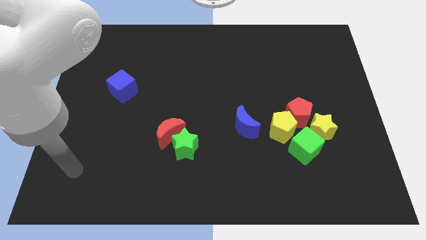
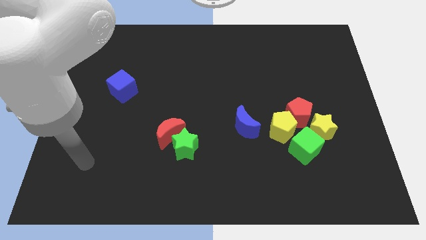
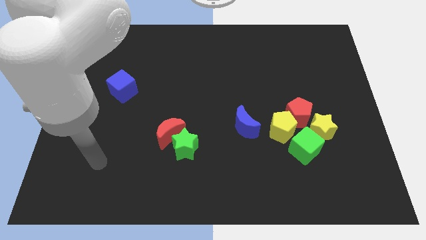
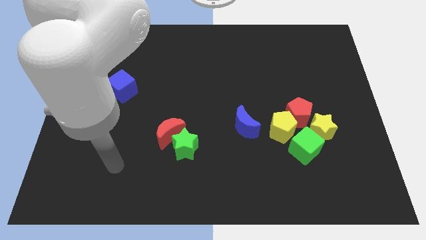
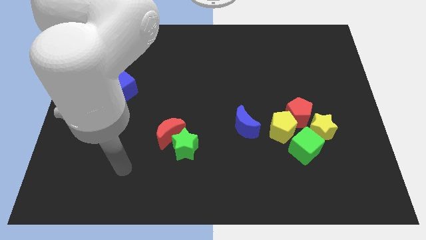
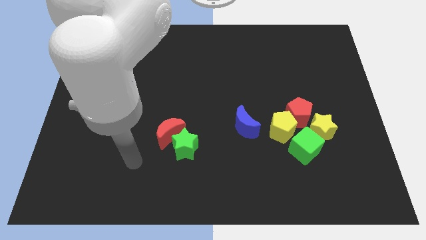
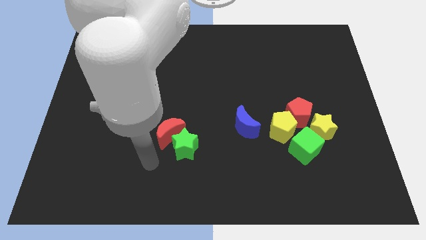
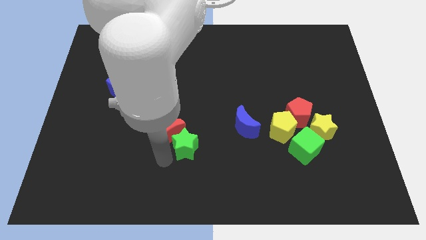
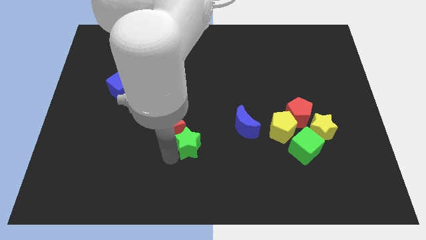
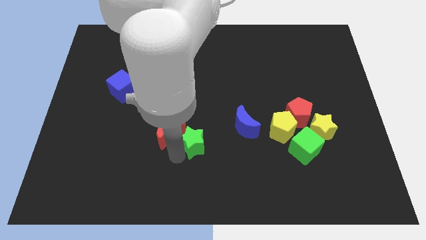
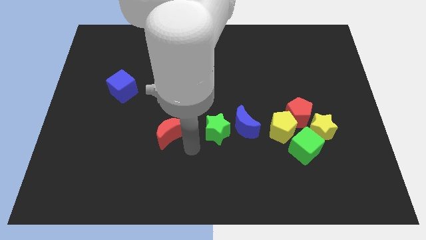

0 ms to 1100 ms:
separate the red moon from the green star

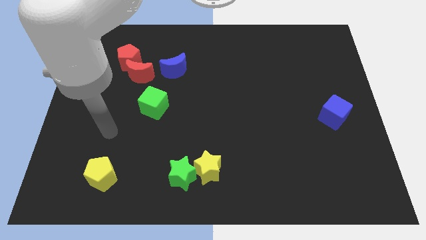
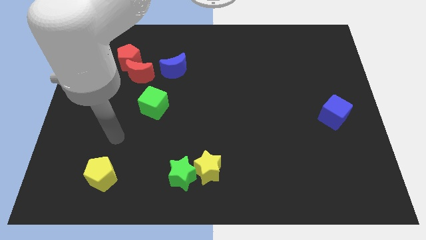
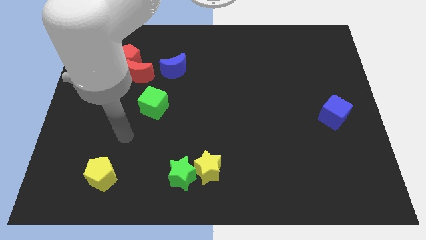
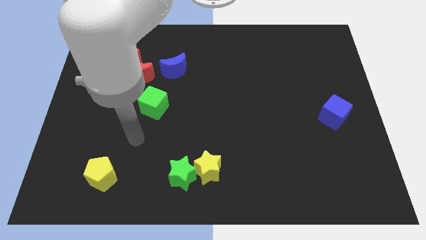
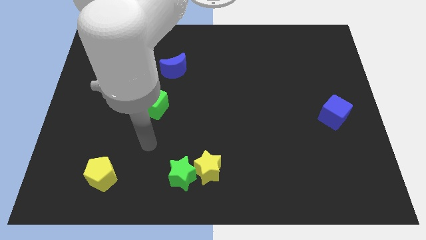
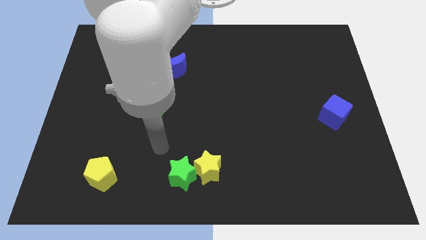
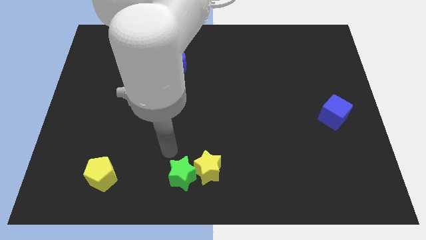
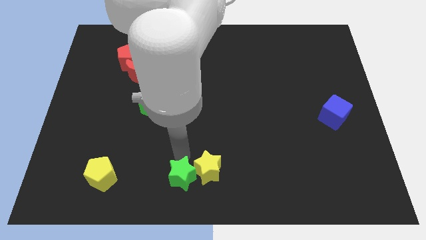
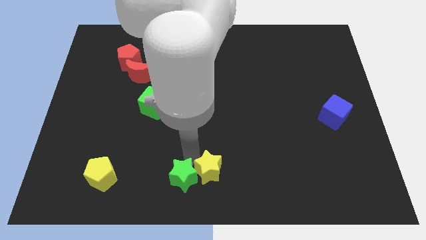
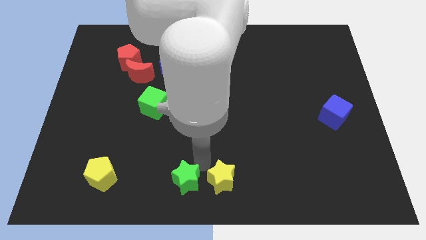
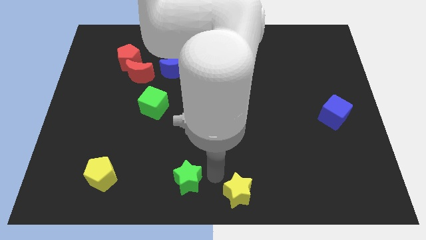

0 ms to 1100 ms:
pull the green star apart from the yellow star

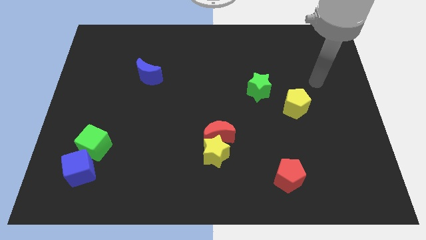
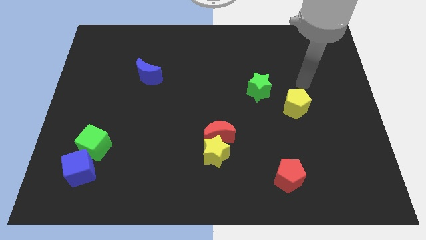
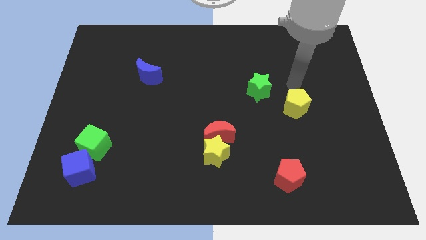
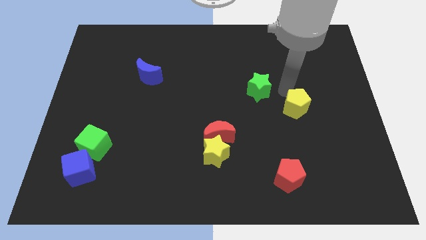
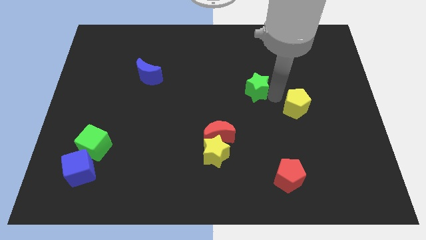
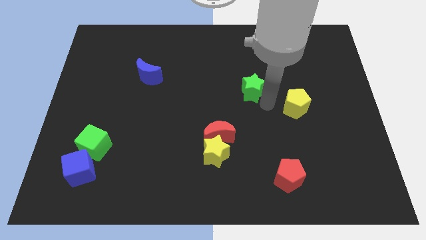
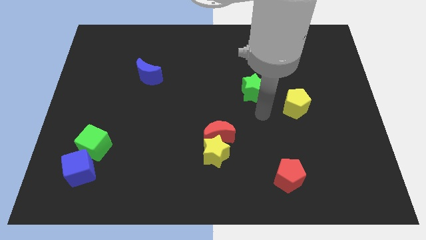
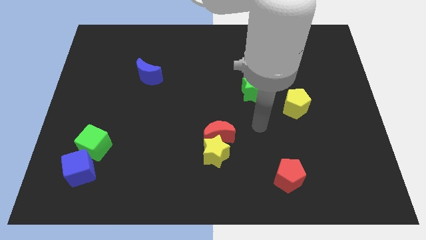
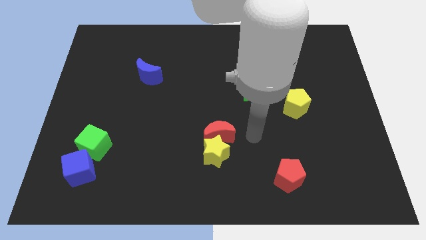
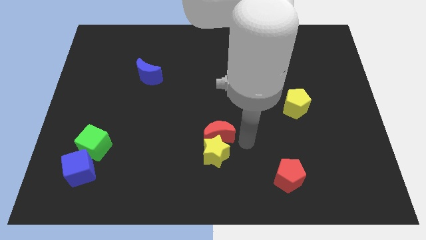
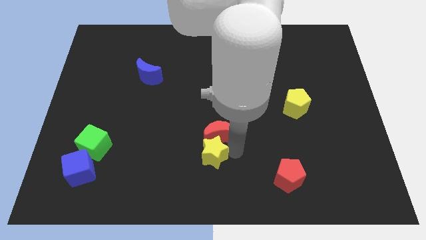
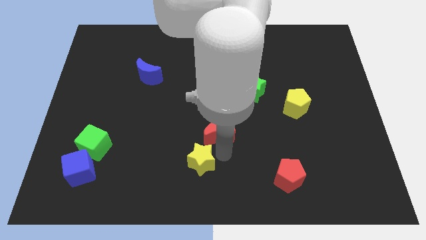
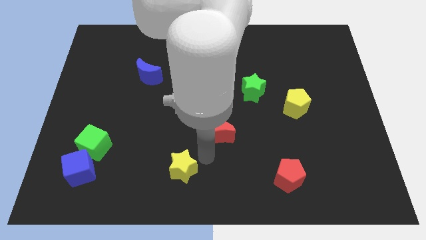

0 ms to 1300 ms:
separate the red moon from the yellow star

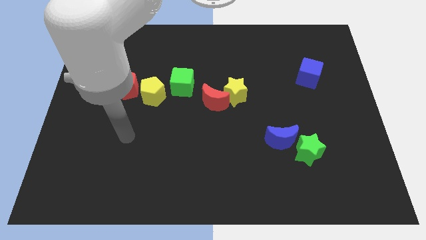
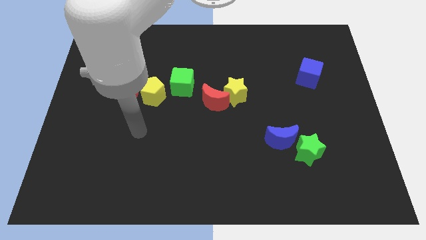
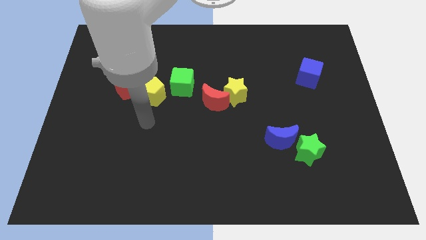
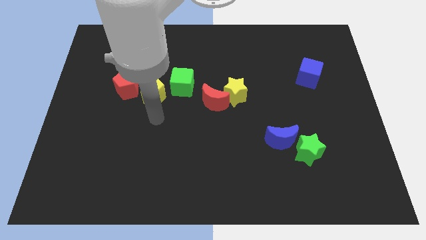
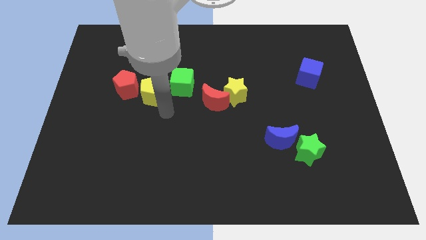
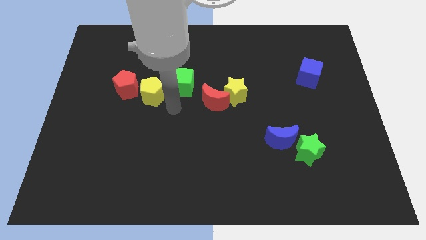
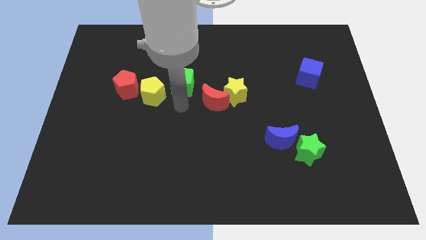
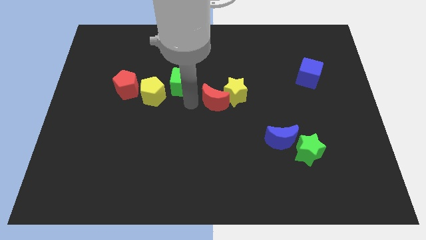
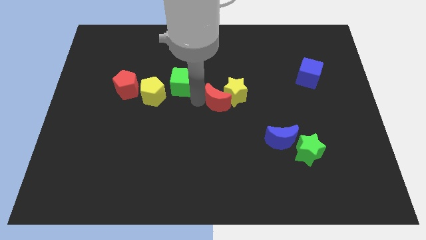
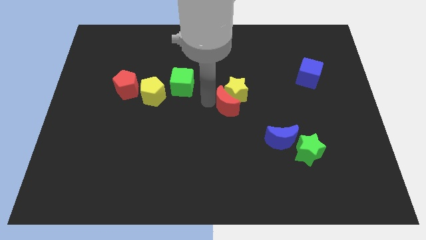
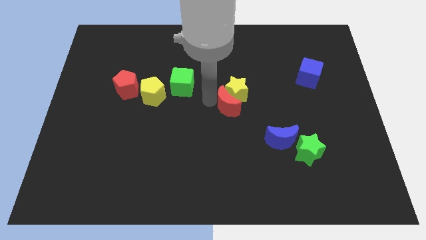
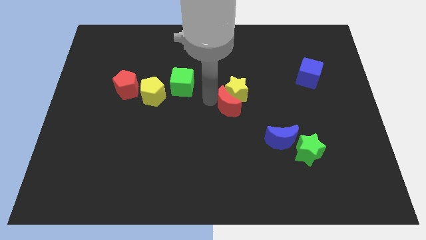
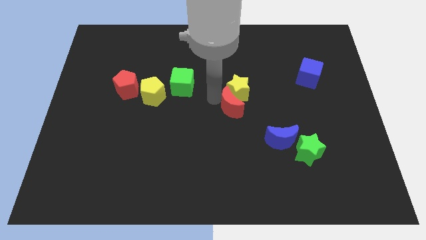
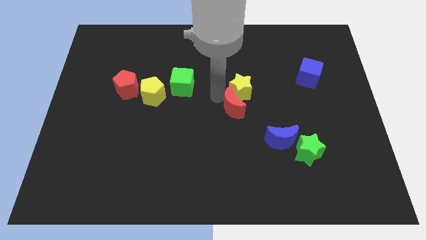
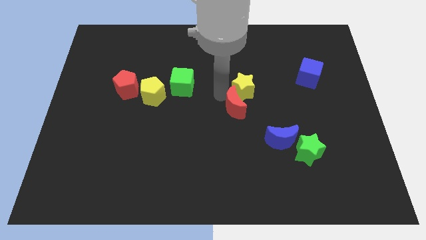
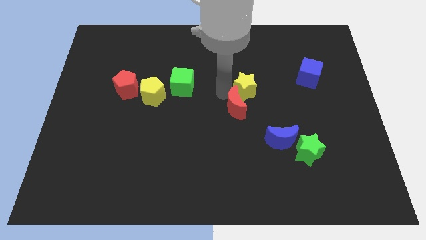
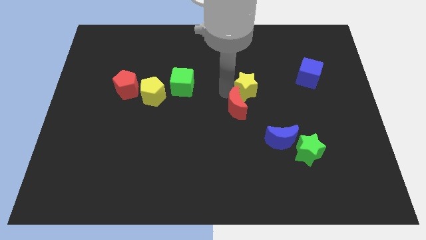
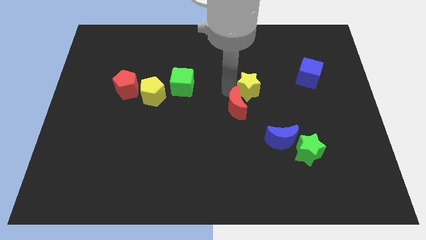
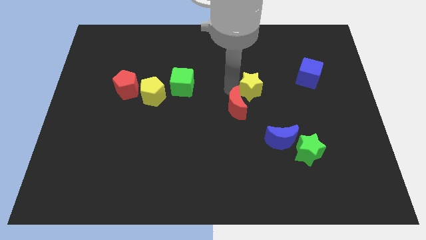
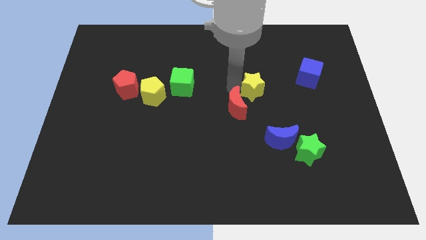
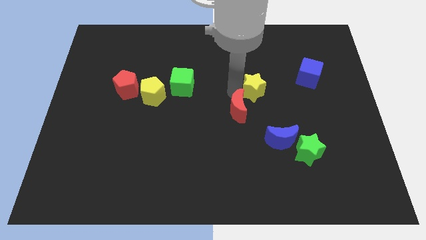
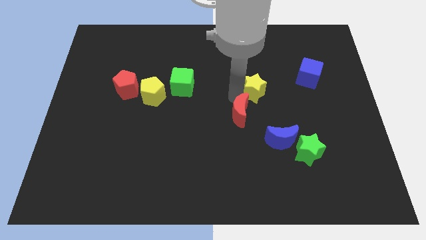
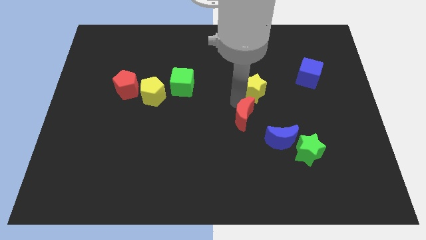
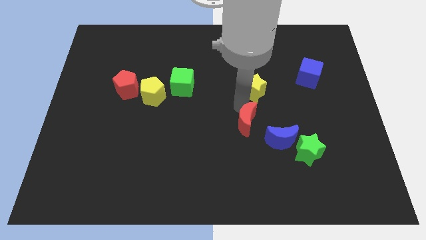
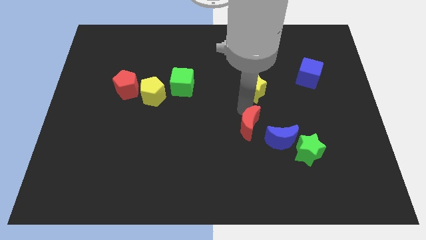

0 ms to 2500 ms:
separate the yellow star from the red moon

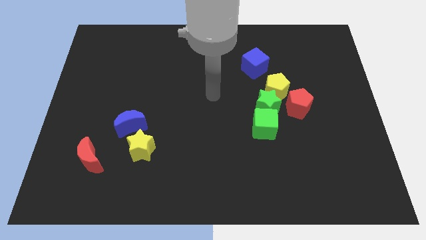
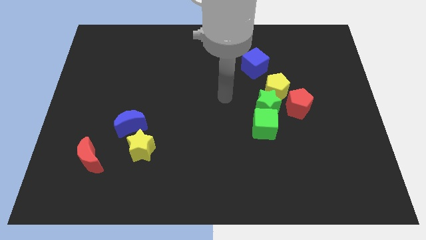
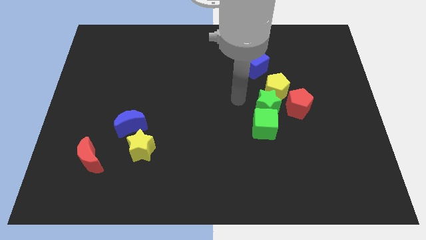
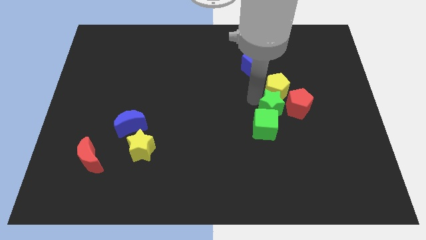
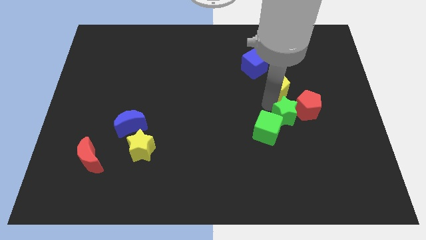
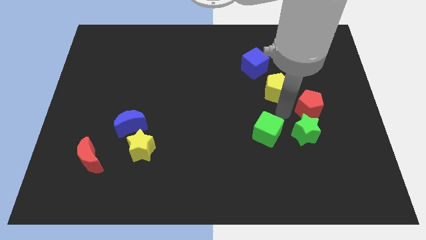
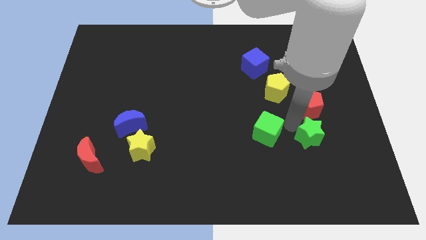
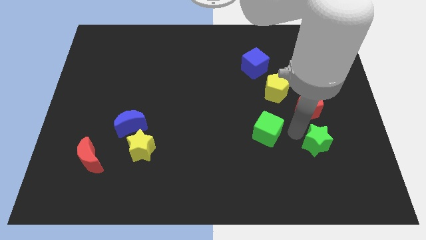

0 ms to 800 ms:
separate the green cube from the green star

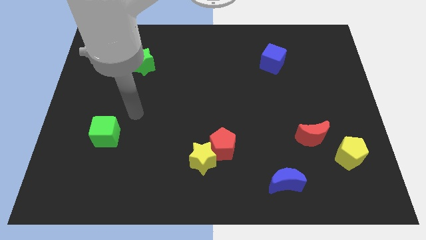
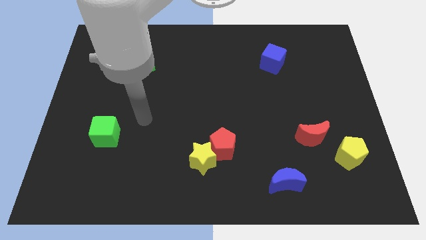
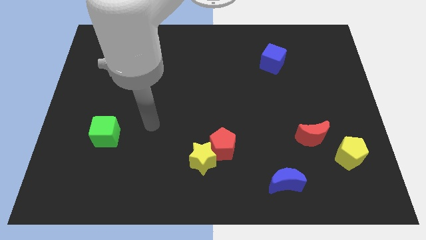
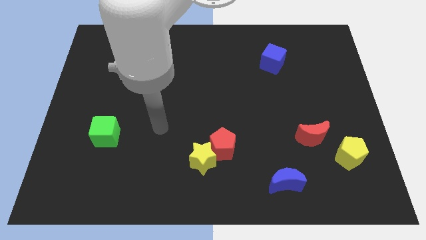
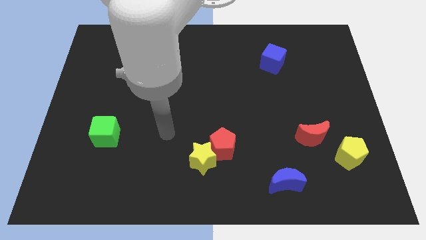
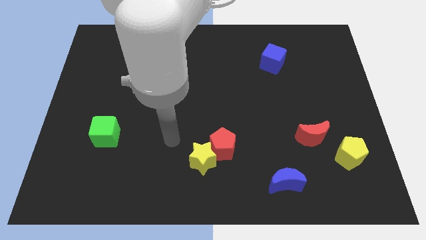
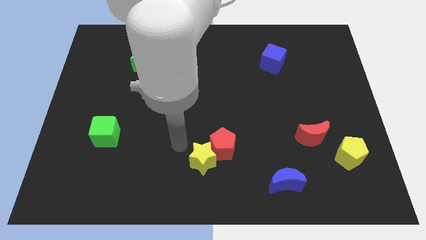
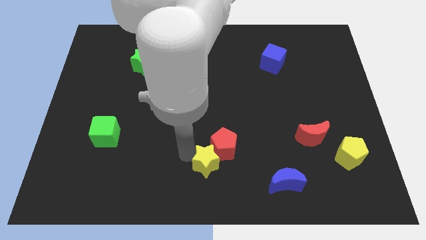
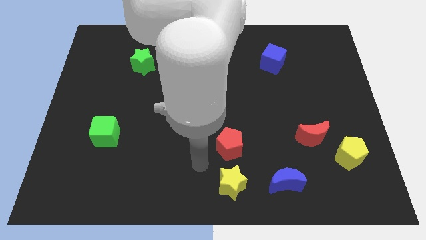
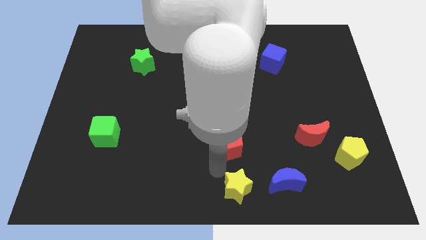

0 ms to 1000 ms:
separate the red pentagon from the yellow star

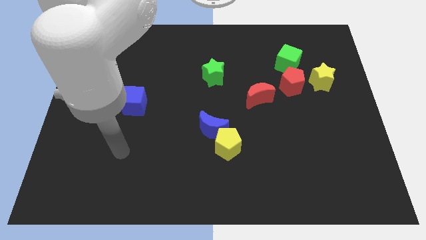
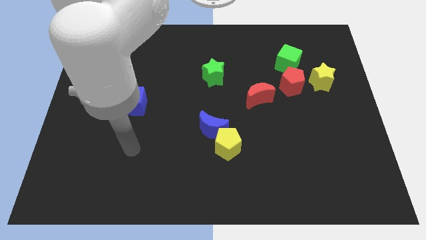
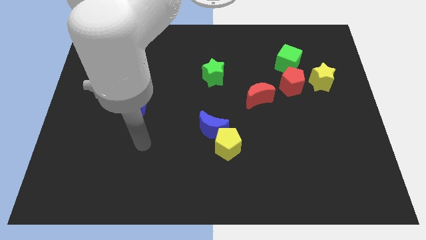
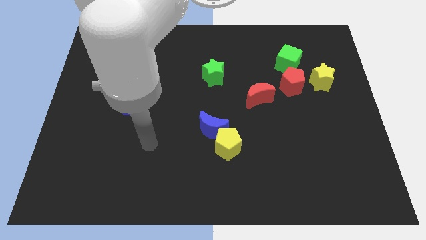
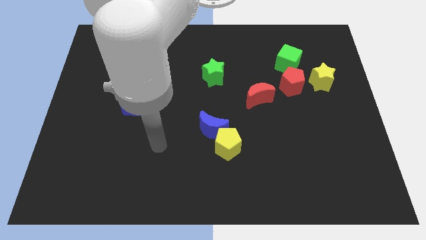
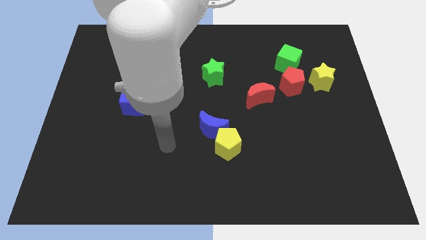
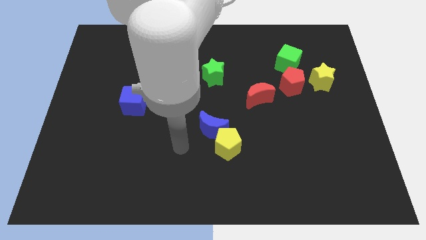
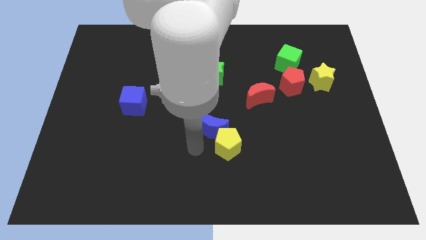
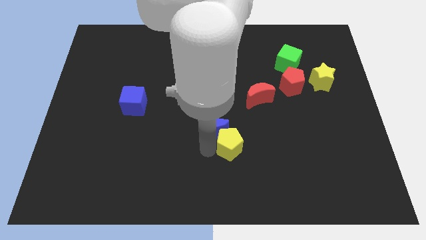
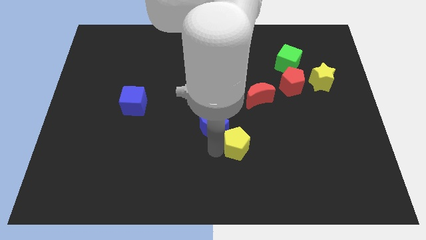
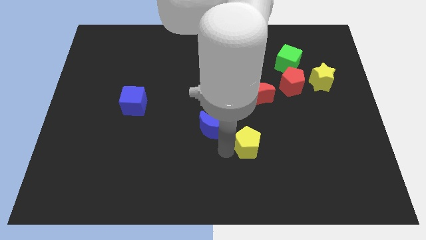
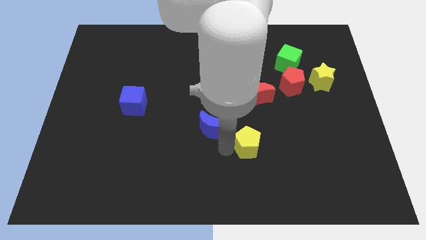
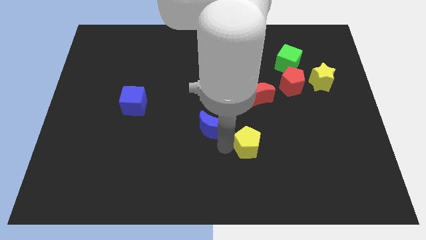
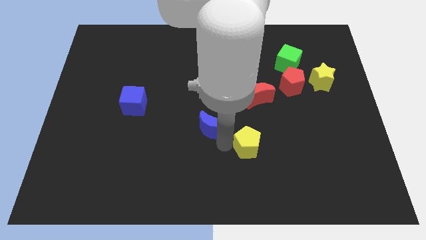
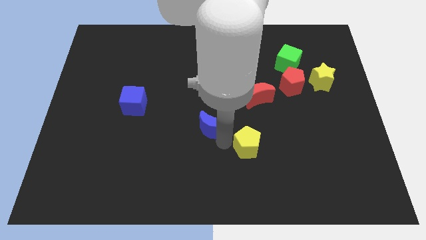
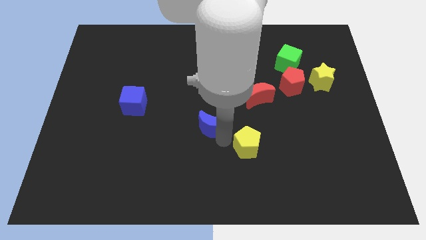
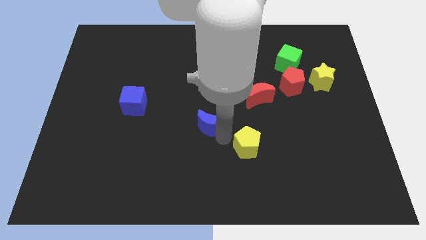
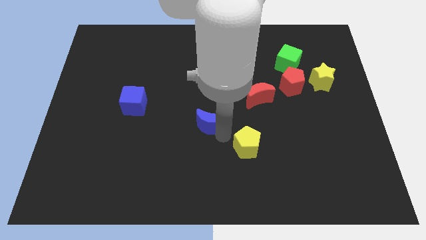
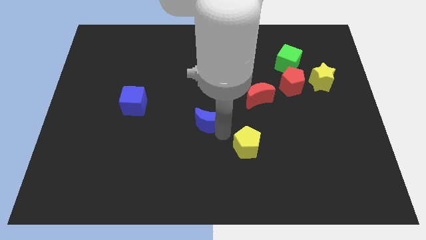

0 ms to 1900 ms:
separate the blue moon from the yellow pentagon
